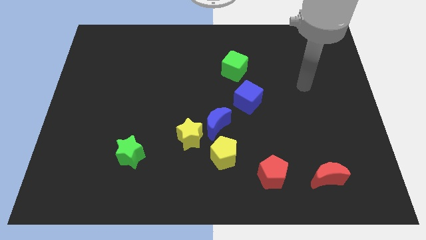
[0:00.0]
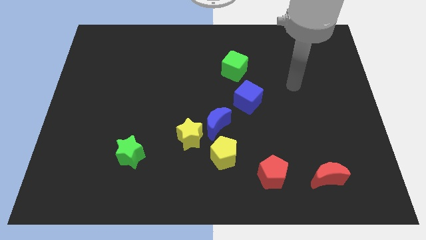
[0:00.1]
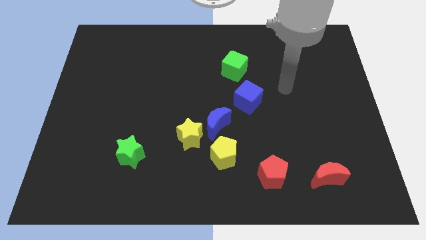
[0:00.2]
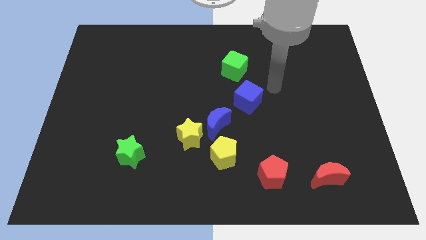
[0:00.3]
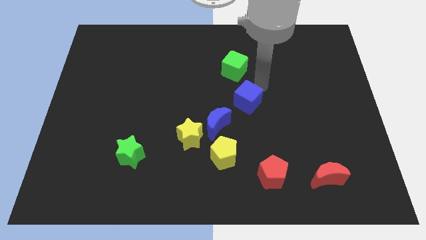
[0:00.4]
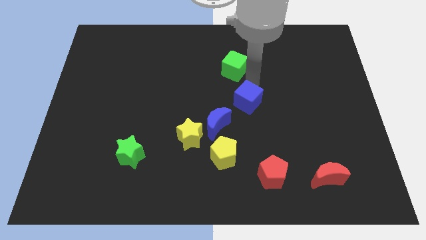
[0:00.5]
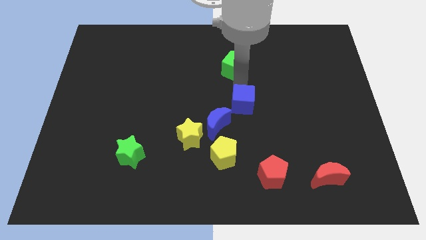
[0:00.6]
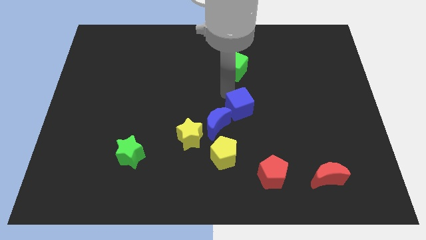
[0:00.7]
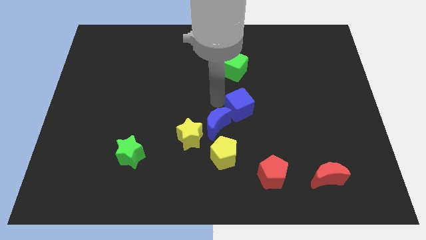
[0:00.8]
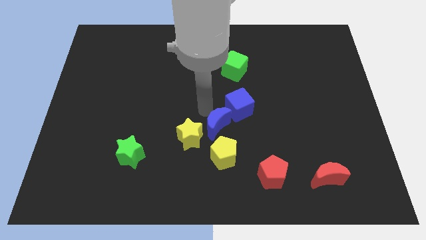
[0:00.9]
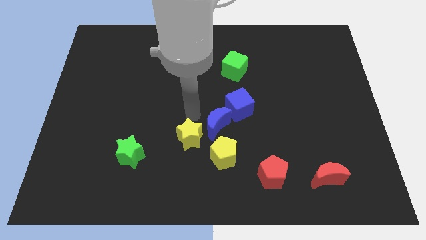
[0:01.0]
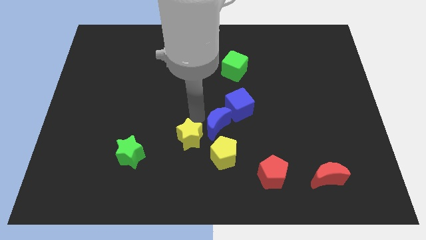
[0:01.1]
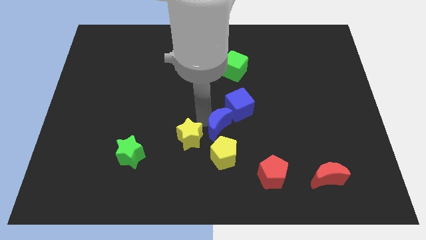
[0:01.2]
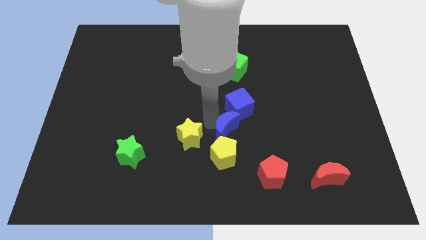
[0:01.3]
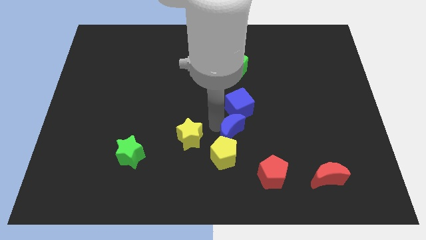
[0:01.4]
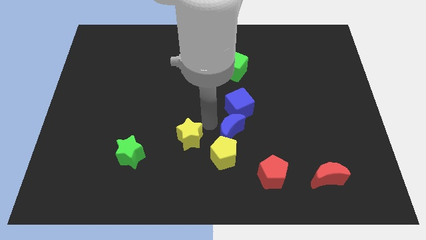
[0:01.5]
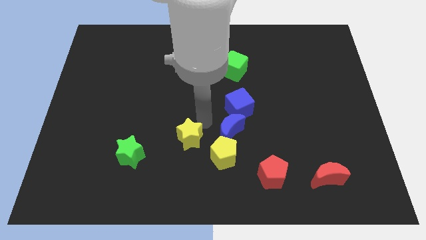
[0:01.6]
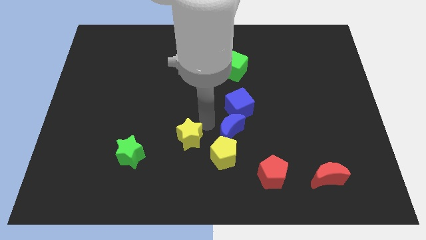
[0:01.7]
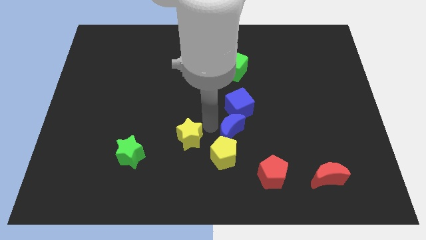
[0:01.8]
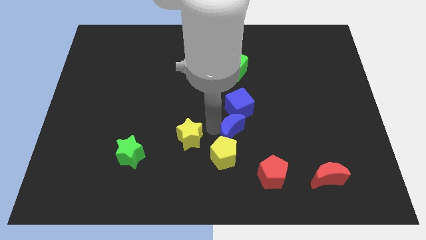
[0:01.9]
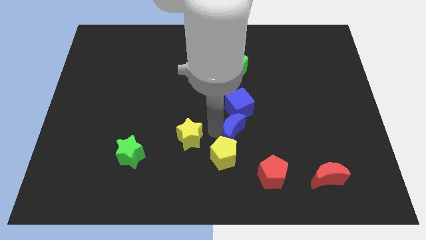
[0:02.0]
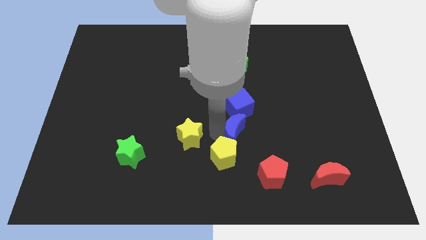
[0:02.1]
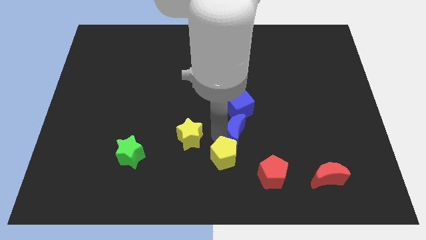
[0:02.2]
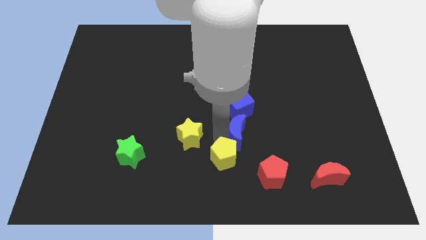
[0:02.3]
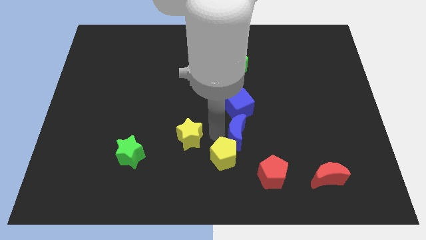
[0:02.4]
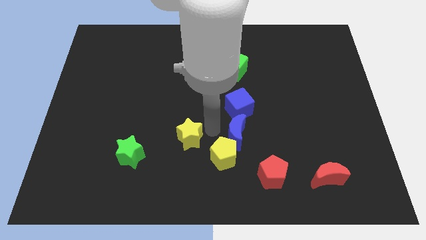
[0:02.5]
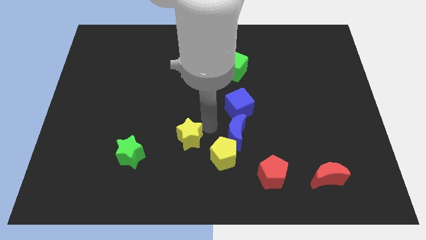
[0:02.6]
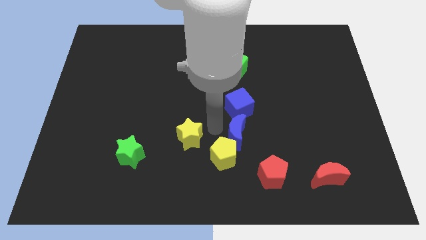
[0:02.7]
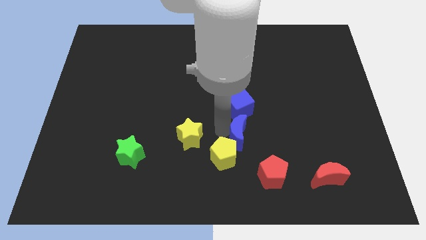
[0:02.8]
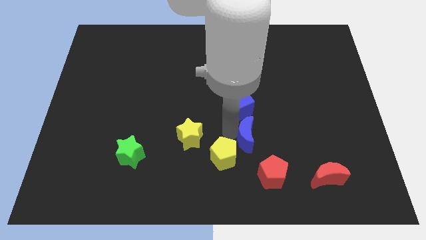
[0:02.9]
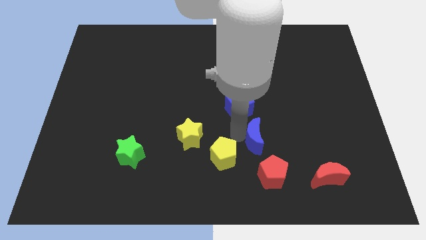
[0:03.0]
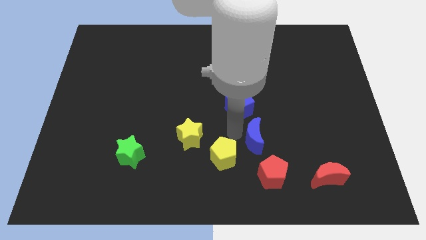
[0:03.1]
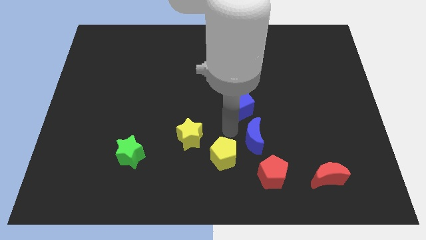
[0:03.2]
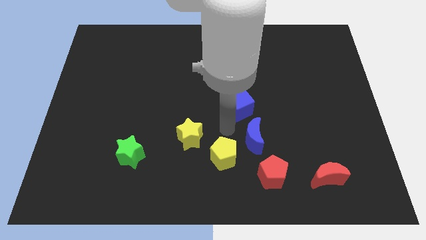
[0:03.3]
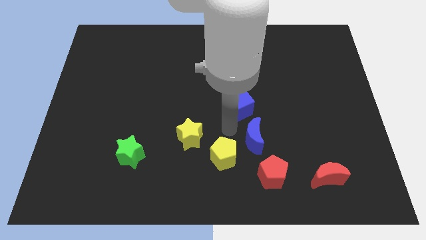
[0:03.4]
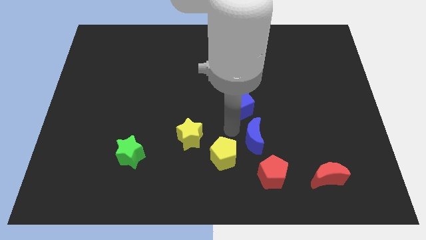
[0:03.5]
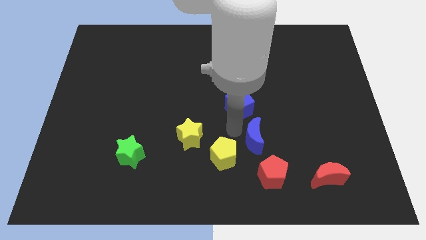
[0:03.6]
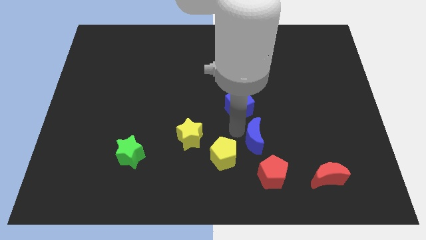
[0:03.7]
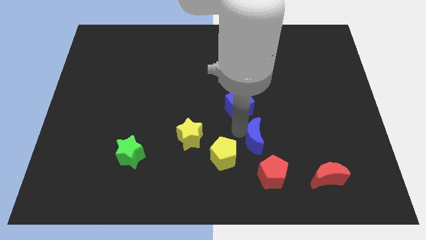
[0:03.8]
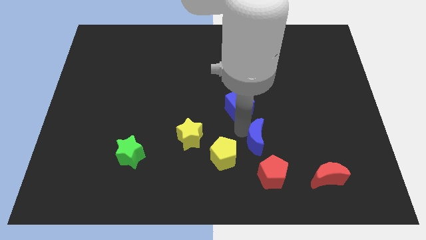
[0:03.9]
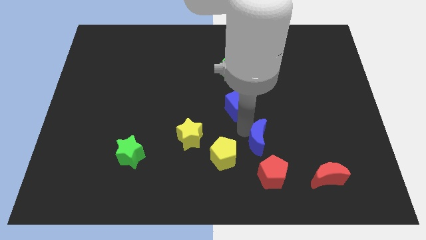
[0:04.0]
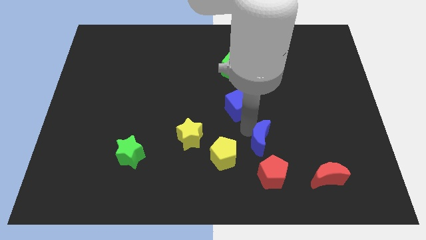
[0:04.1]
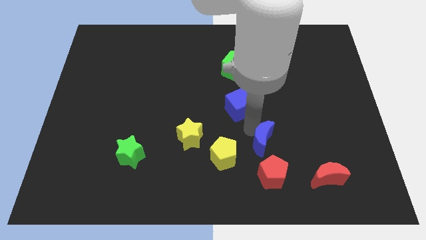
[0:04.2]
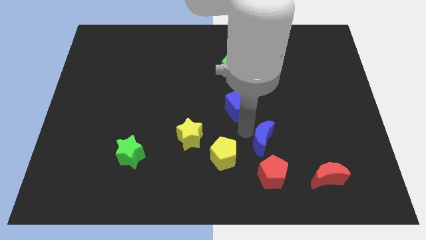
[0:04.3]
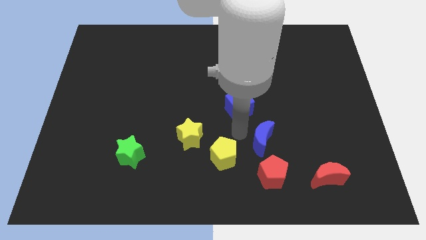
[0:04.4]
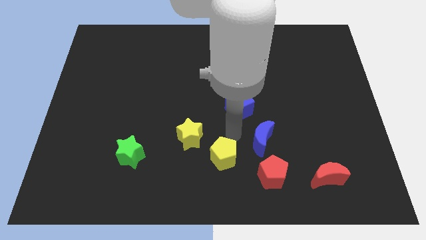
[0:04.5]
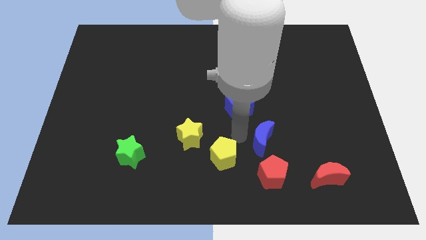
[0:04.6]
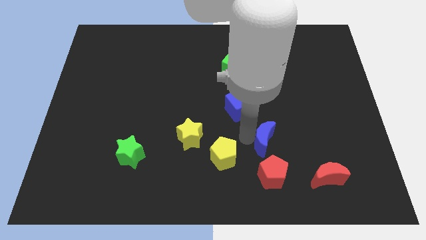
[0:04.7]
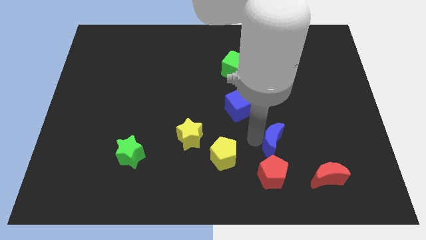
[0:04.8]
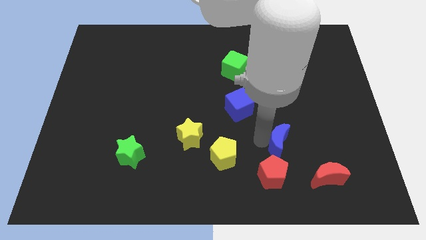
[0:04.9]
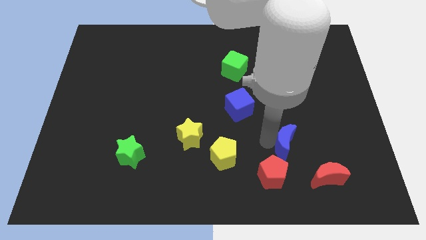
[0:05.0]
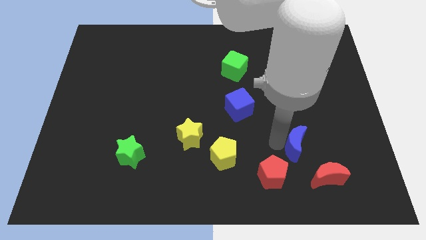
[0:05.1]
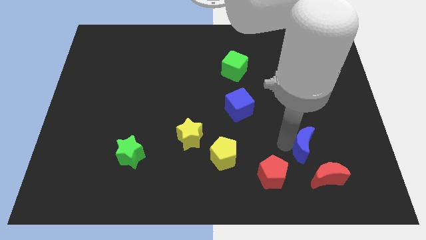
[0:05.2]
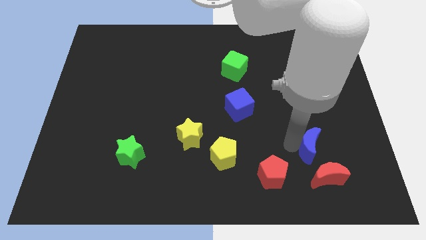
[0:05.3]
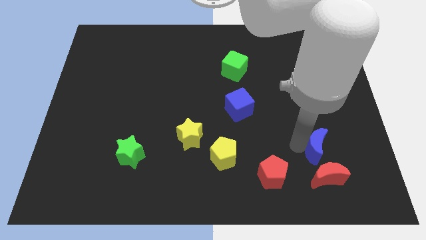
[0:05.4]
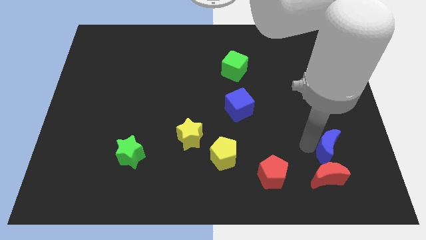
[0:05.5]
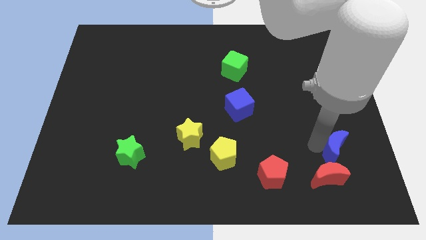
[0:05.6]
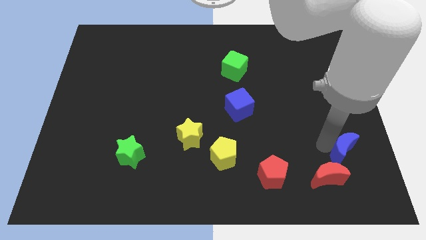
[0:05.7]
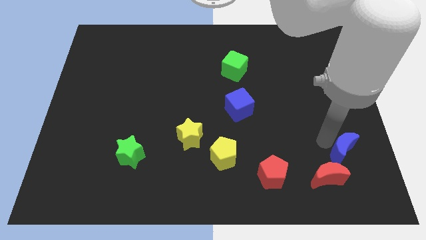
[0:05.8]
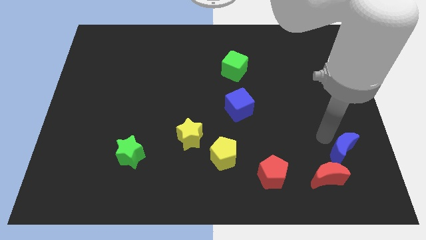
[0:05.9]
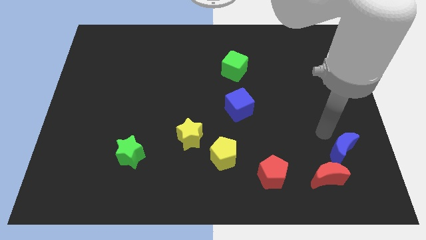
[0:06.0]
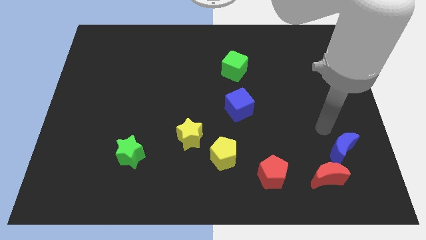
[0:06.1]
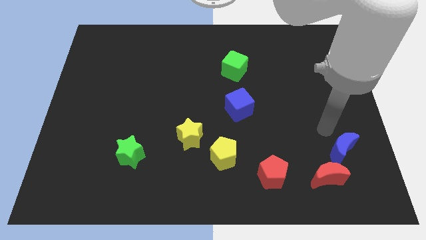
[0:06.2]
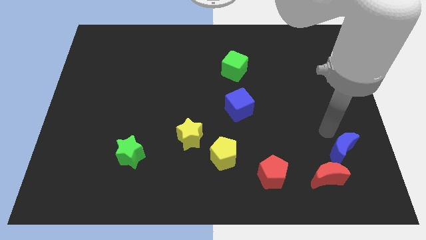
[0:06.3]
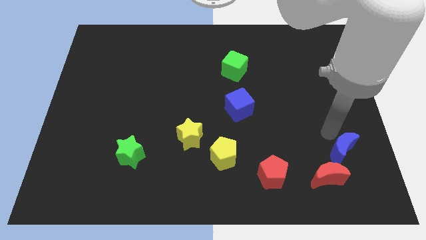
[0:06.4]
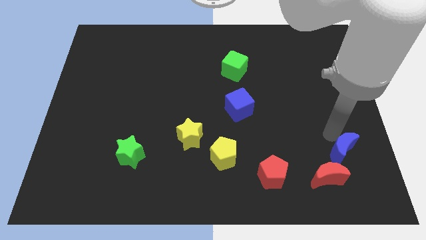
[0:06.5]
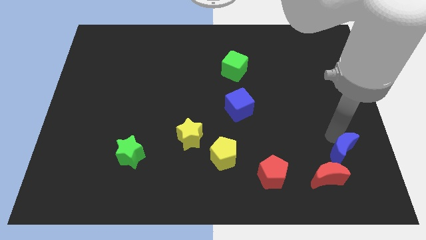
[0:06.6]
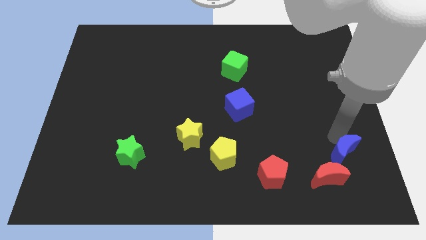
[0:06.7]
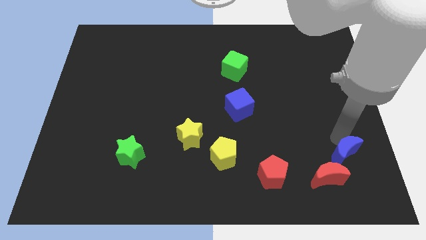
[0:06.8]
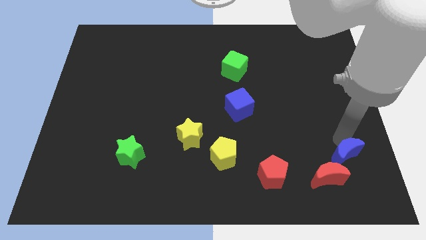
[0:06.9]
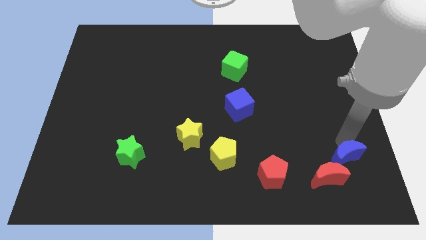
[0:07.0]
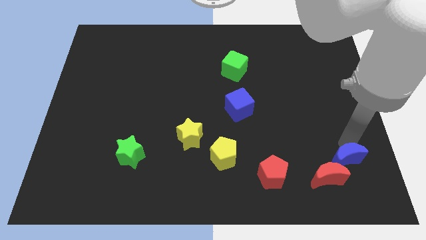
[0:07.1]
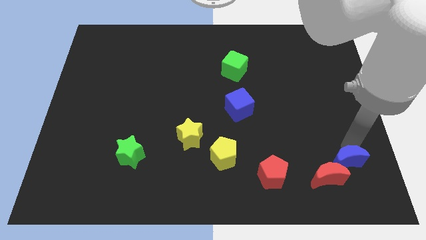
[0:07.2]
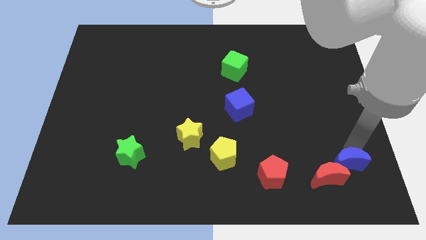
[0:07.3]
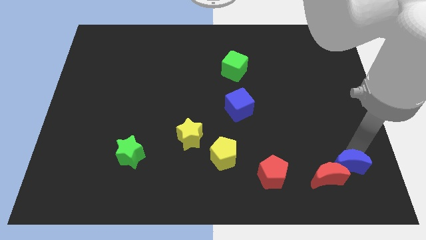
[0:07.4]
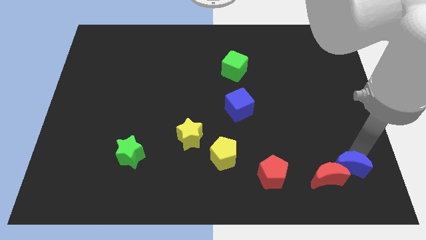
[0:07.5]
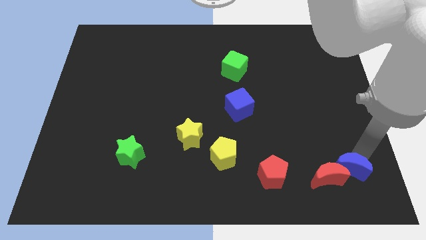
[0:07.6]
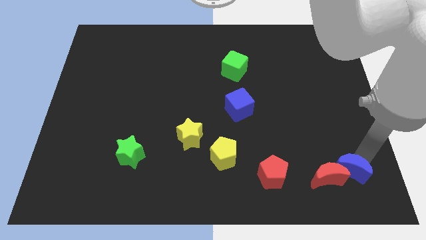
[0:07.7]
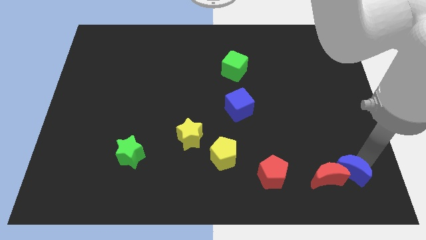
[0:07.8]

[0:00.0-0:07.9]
move the blue moon just right of the red pentagon
